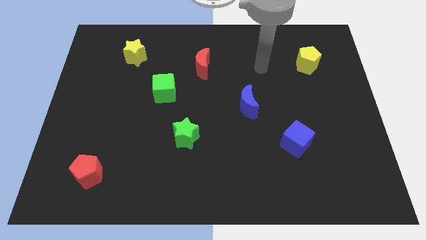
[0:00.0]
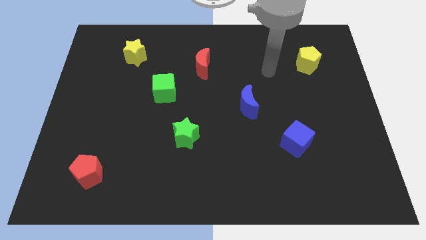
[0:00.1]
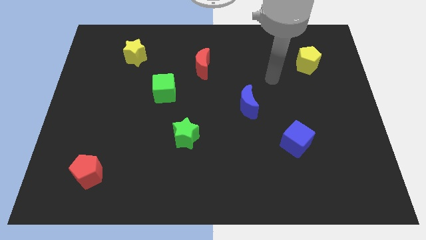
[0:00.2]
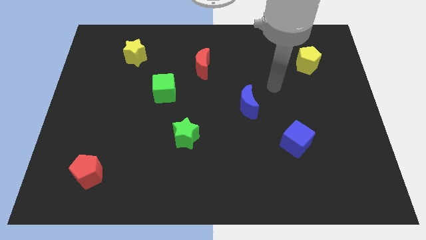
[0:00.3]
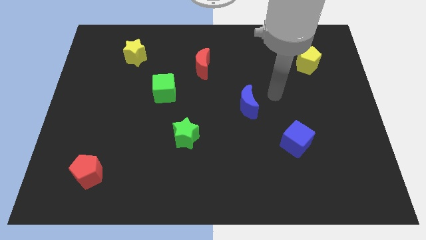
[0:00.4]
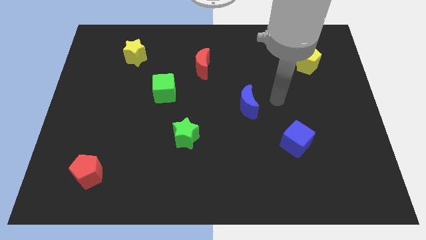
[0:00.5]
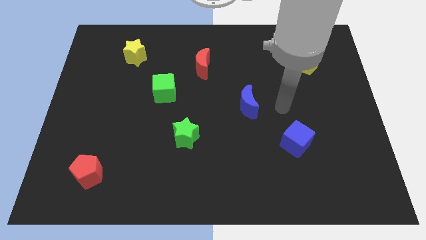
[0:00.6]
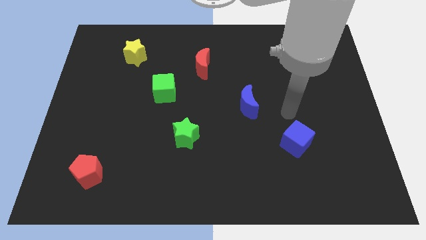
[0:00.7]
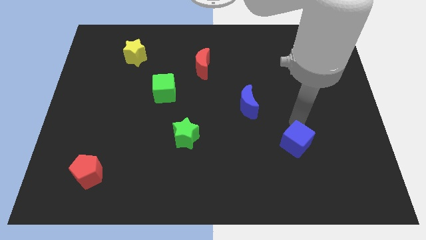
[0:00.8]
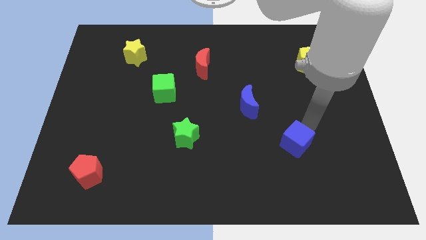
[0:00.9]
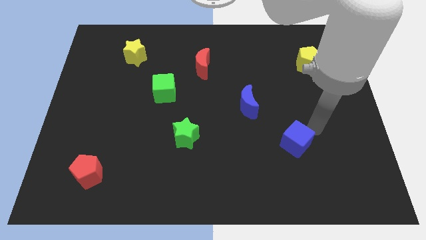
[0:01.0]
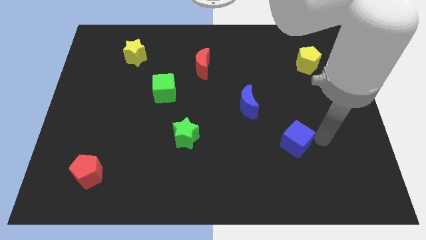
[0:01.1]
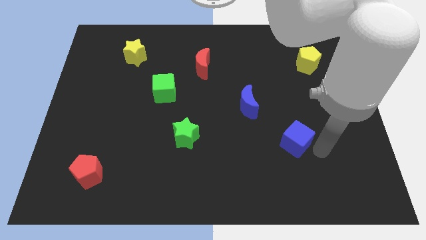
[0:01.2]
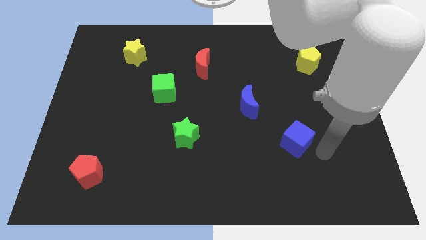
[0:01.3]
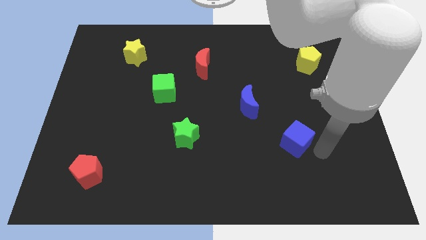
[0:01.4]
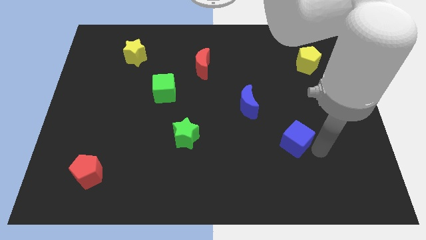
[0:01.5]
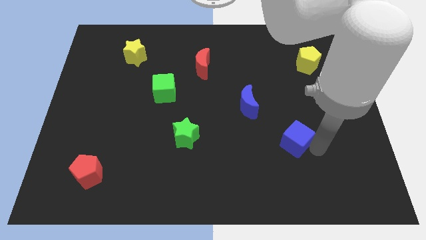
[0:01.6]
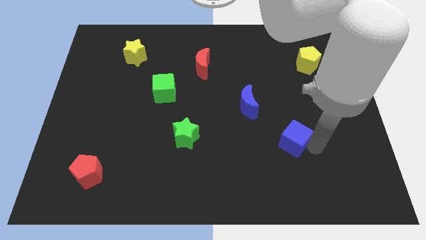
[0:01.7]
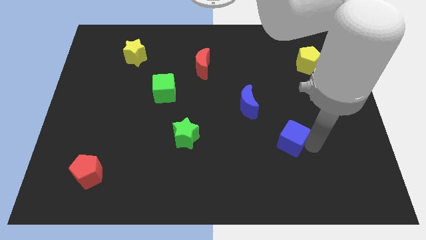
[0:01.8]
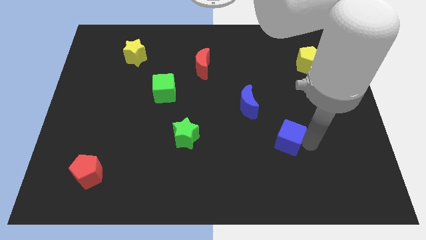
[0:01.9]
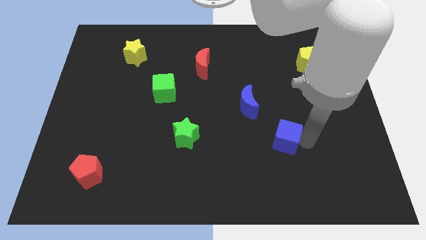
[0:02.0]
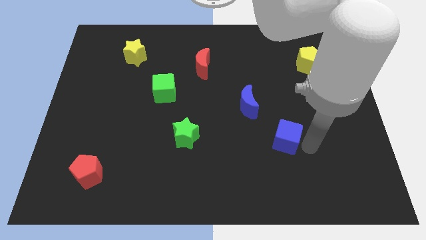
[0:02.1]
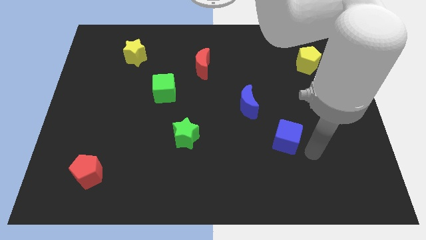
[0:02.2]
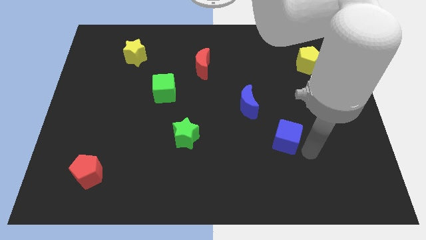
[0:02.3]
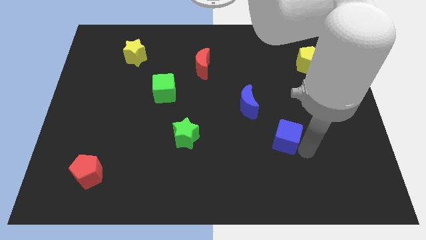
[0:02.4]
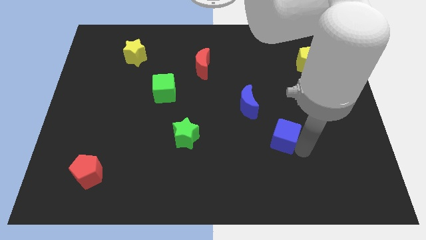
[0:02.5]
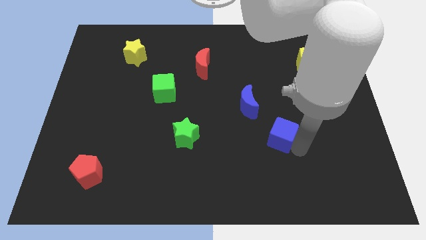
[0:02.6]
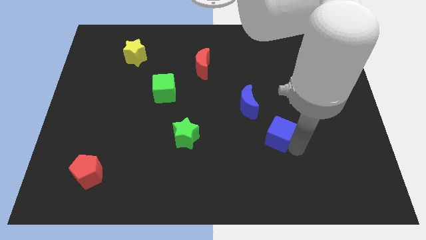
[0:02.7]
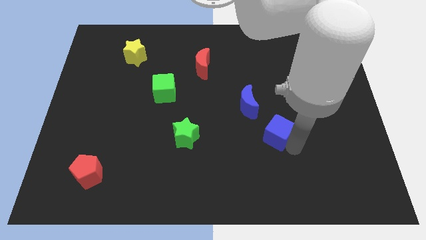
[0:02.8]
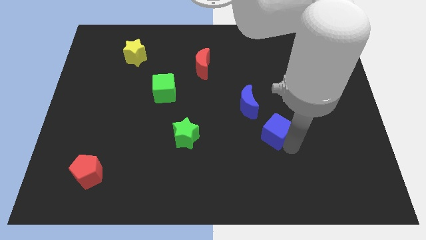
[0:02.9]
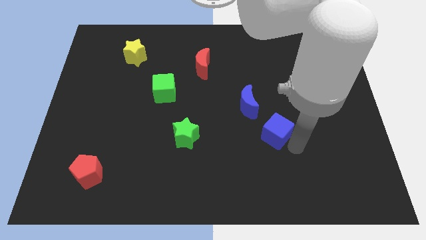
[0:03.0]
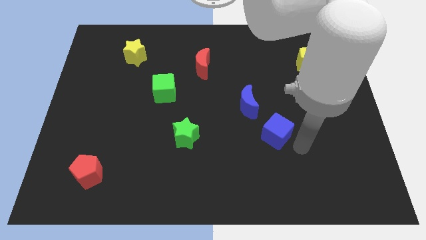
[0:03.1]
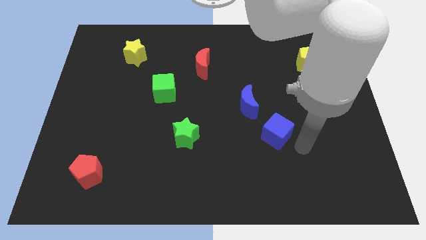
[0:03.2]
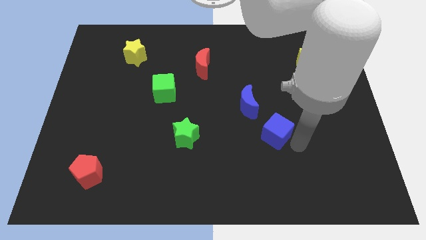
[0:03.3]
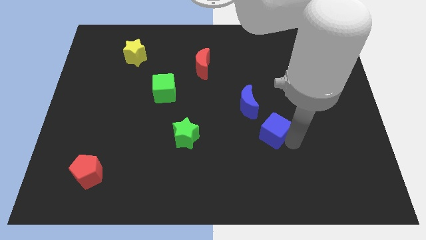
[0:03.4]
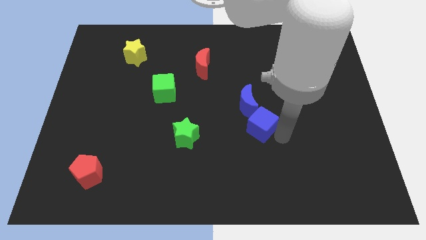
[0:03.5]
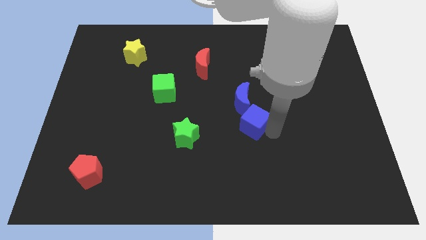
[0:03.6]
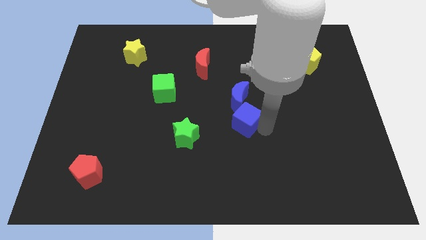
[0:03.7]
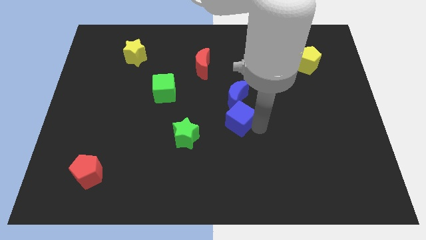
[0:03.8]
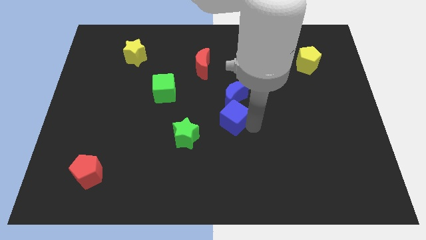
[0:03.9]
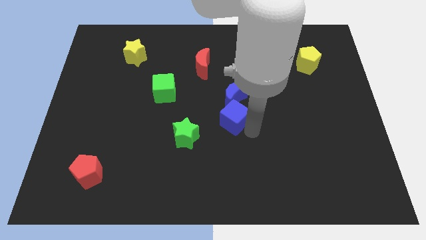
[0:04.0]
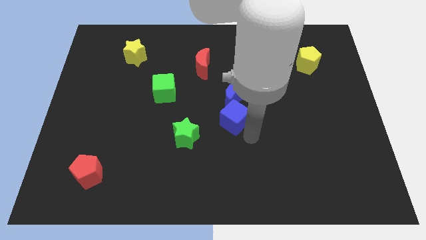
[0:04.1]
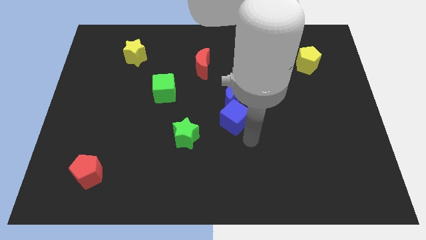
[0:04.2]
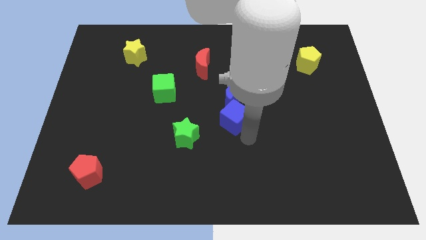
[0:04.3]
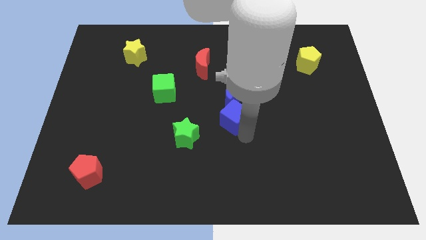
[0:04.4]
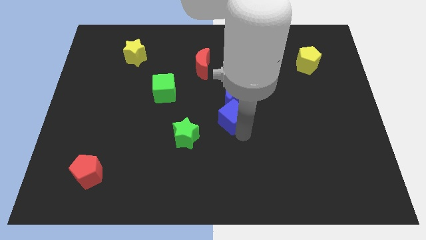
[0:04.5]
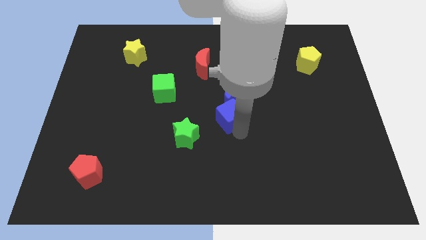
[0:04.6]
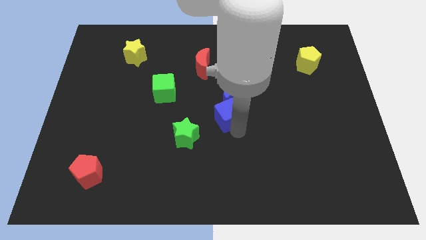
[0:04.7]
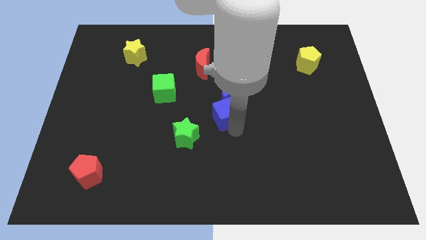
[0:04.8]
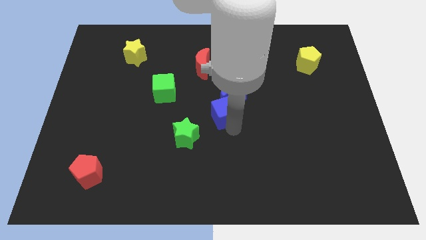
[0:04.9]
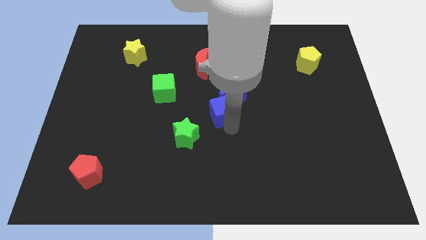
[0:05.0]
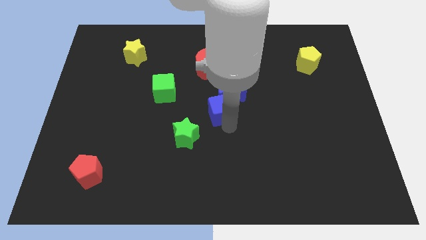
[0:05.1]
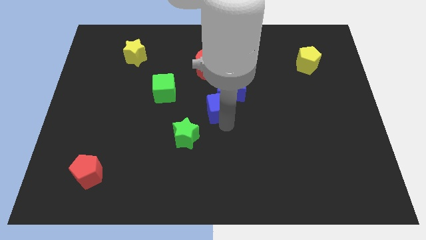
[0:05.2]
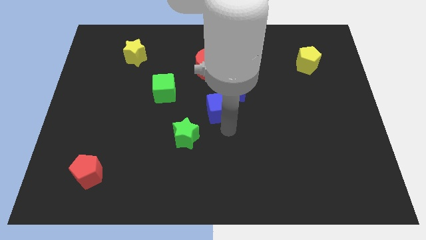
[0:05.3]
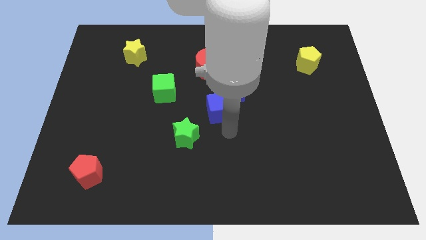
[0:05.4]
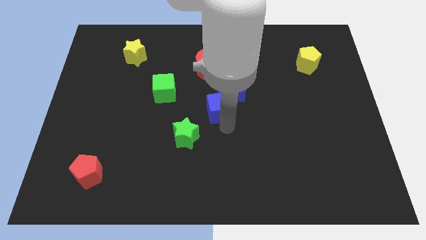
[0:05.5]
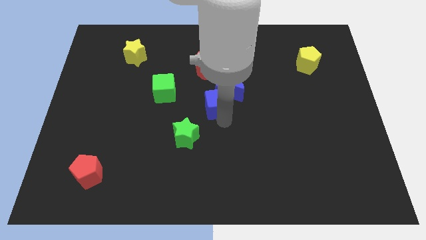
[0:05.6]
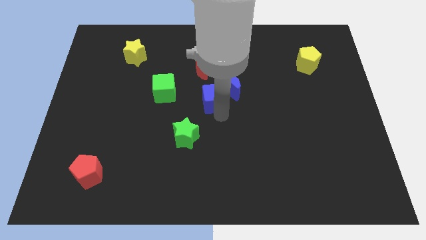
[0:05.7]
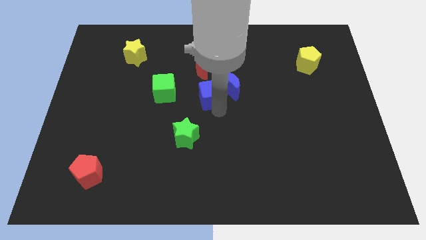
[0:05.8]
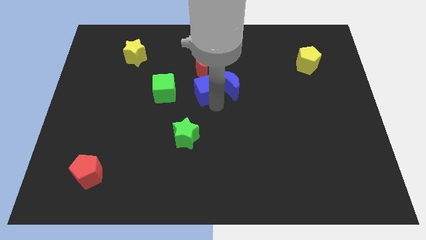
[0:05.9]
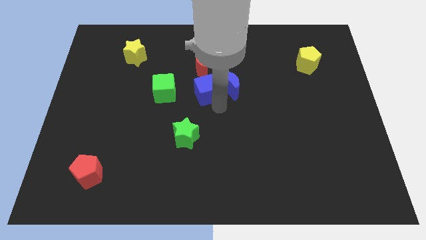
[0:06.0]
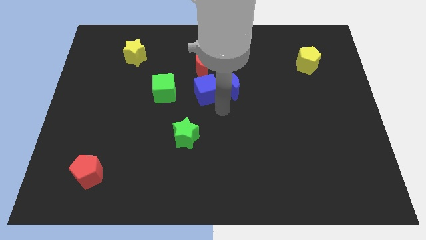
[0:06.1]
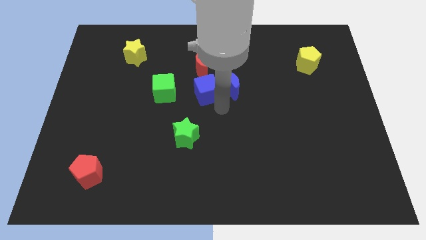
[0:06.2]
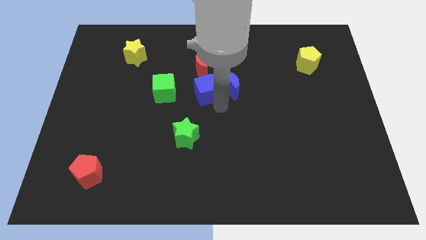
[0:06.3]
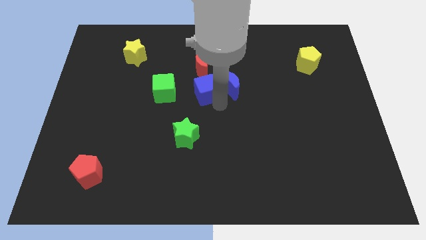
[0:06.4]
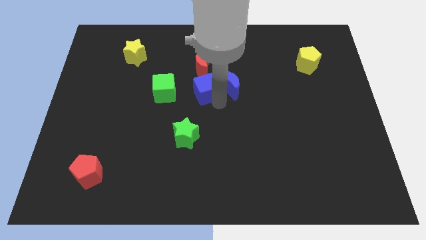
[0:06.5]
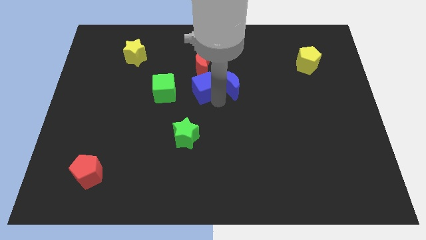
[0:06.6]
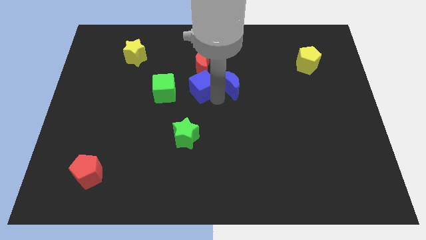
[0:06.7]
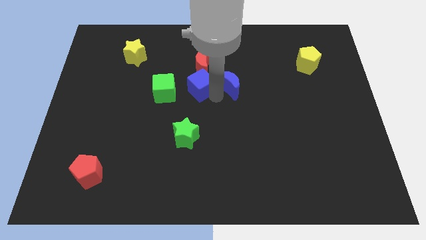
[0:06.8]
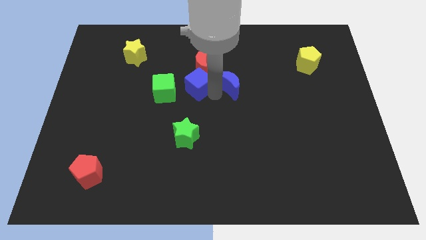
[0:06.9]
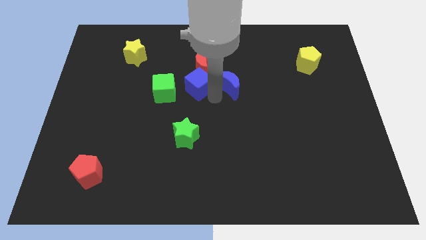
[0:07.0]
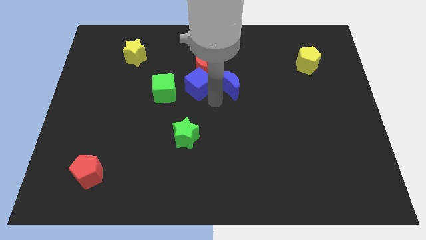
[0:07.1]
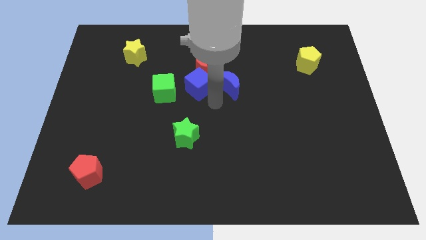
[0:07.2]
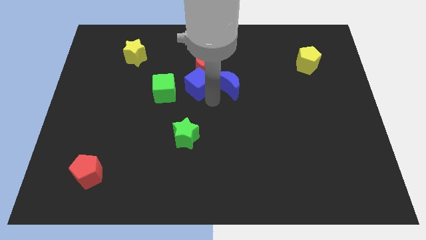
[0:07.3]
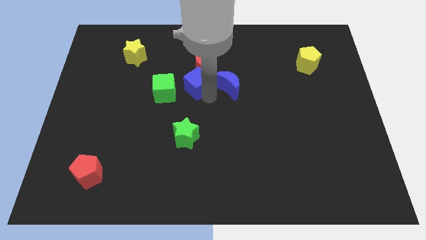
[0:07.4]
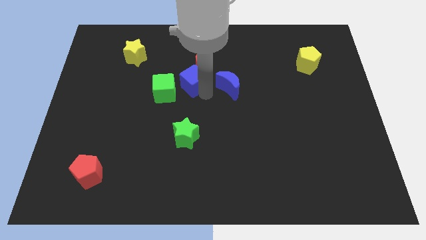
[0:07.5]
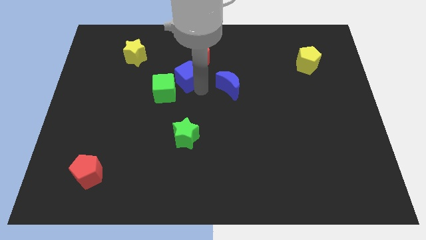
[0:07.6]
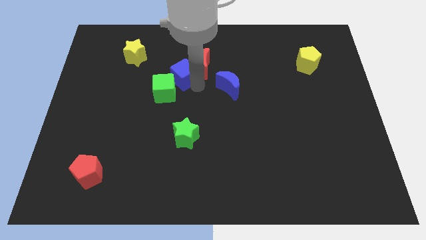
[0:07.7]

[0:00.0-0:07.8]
push the blue cube to the top side of the green cube
